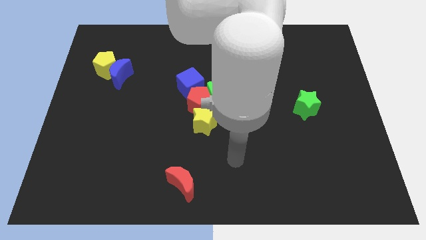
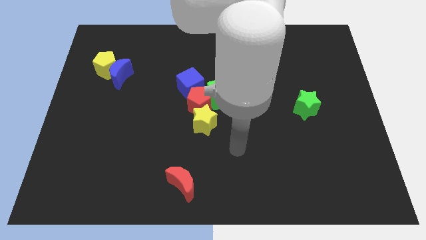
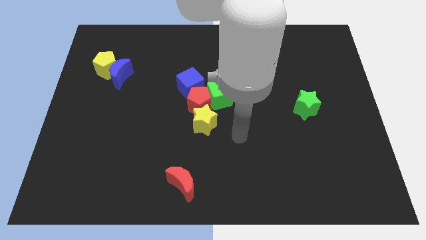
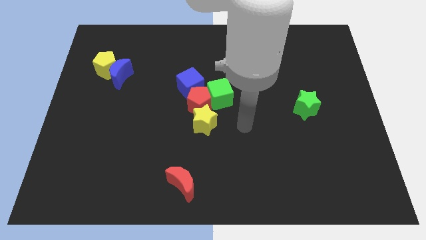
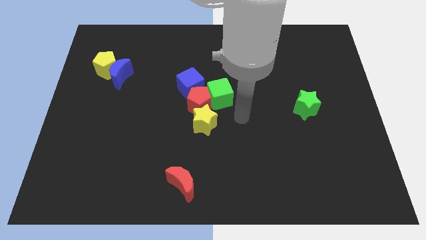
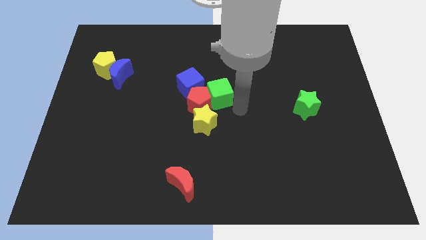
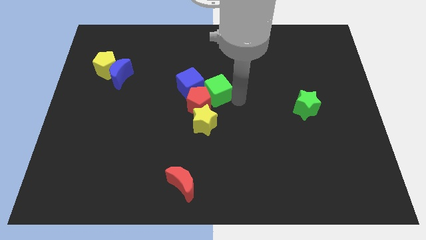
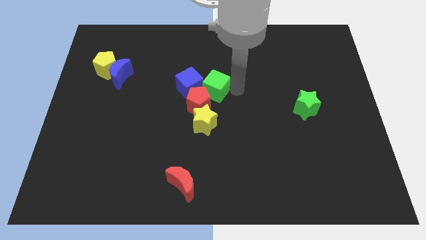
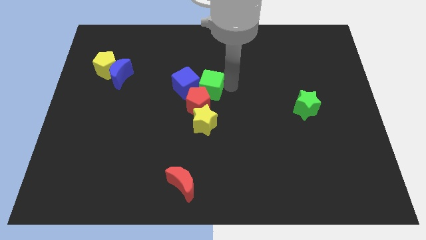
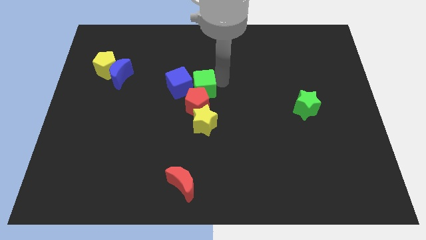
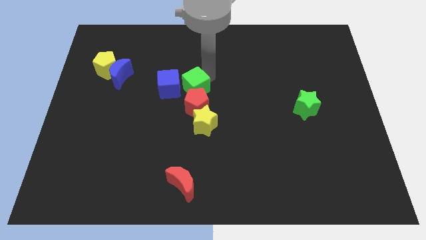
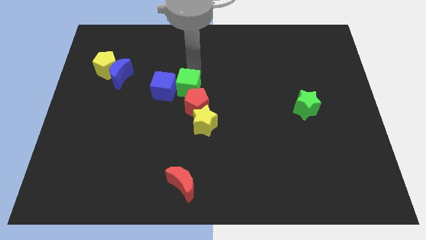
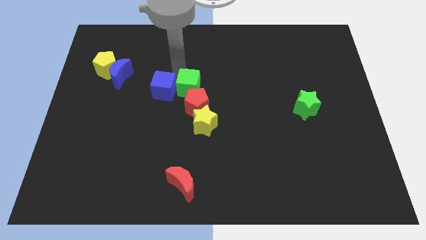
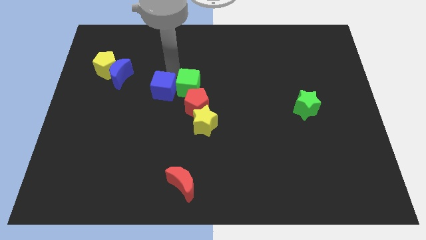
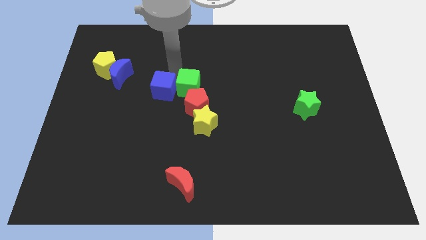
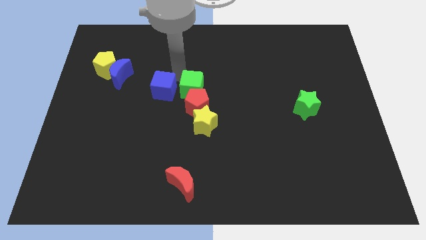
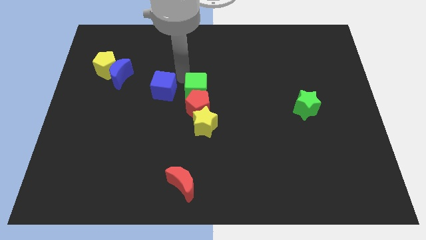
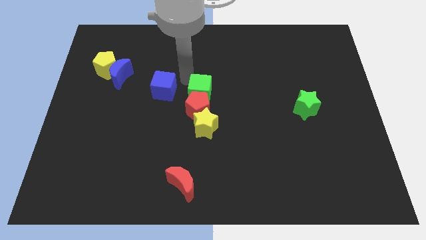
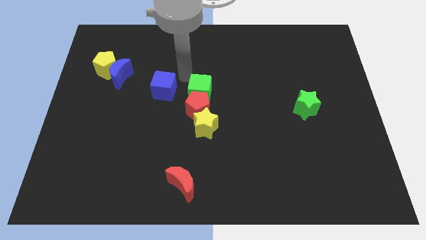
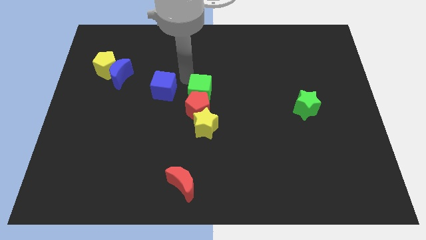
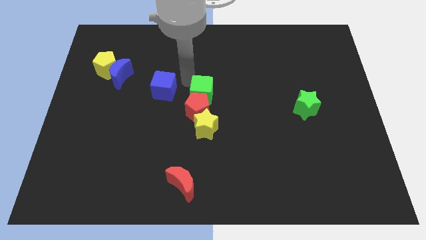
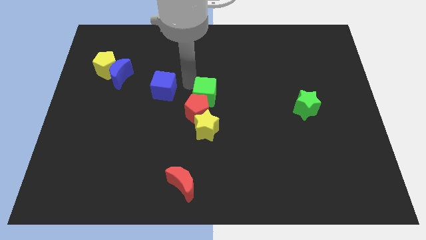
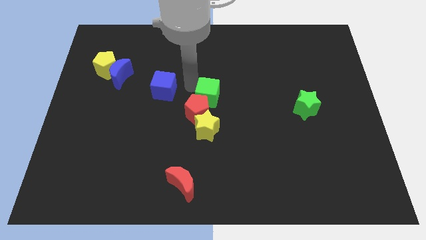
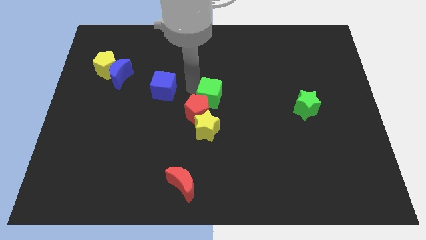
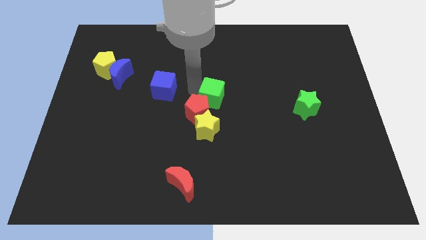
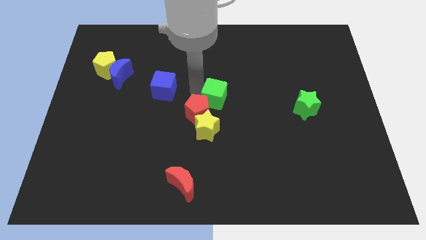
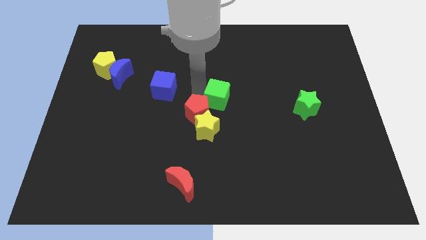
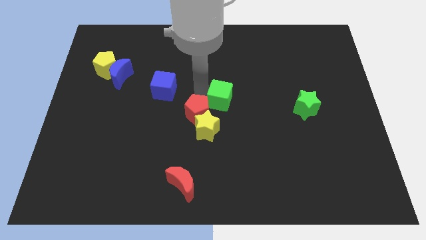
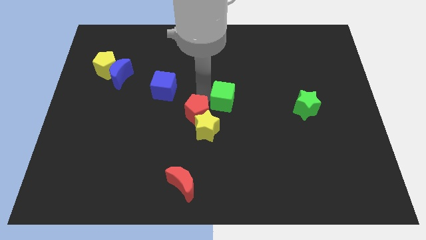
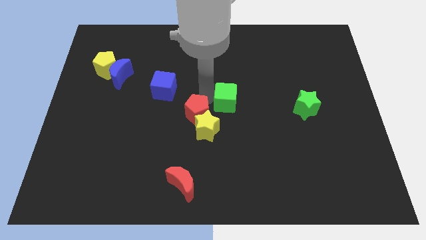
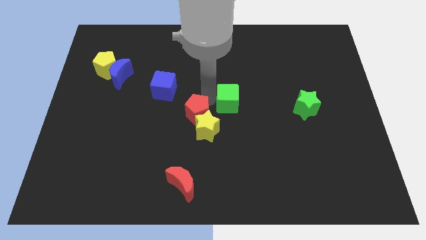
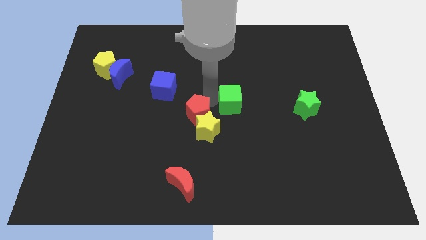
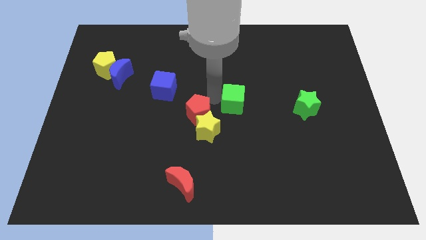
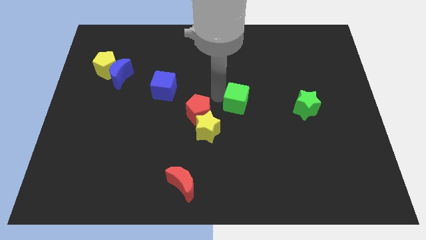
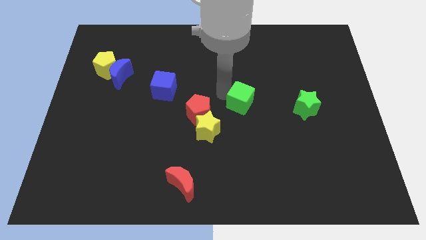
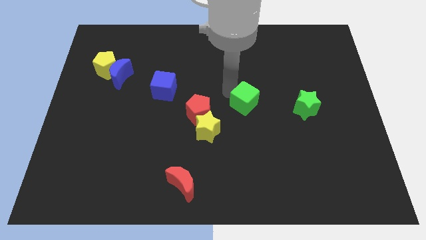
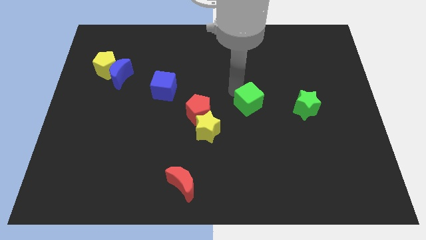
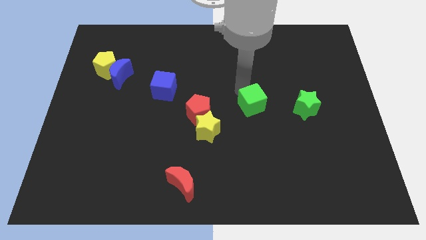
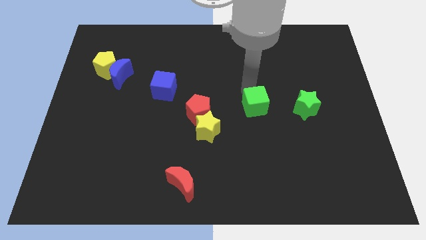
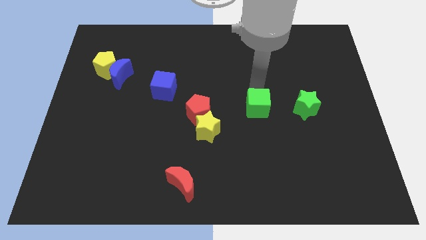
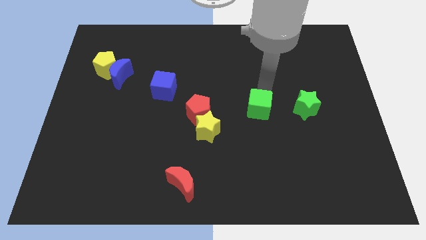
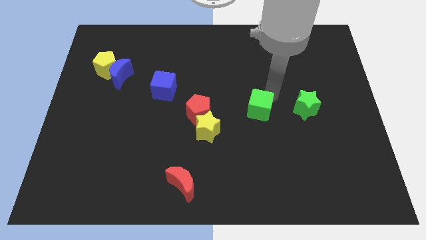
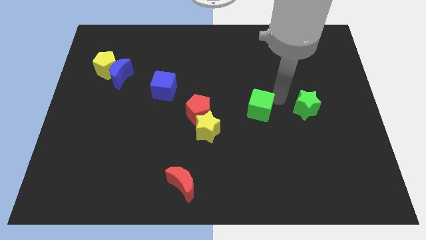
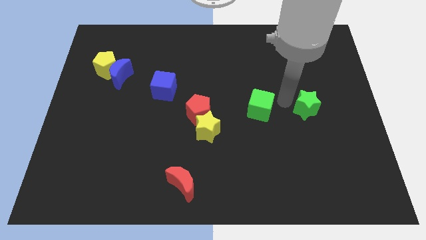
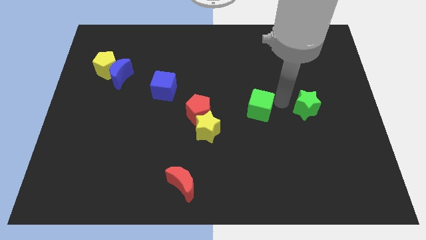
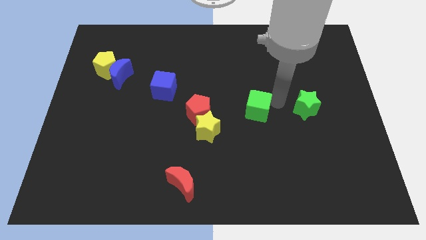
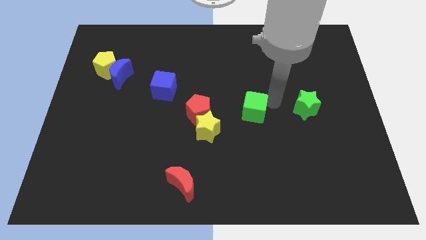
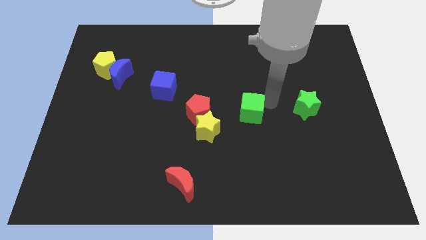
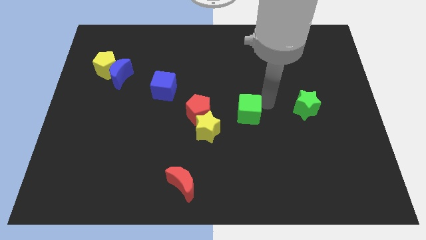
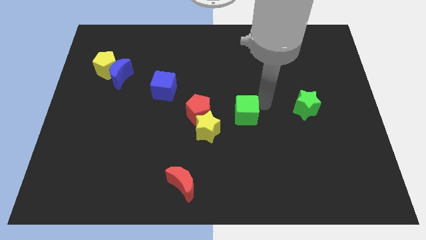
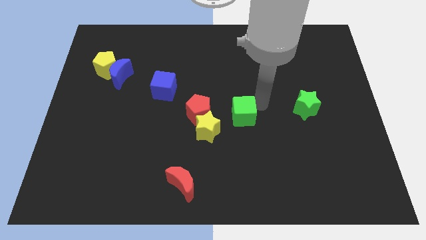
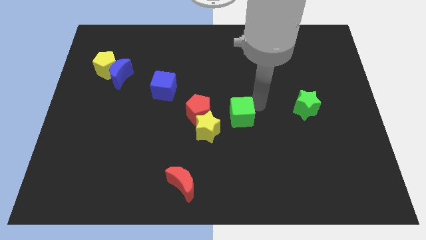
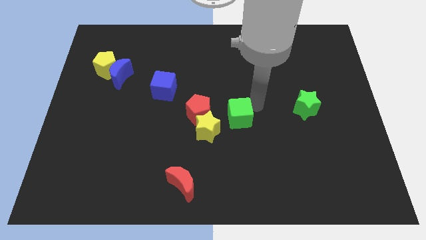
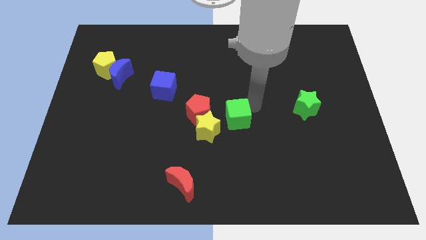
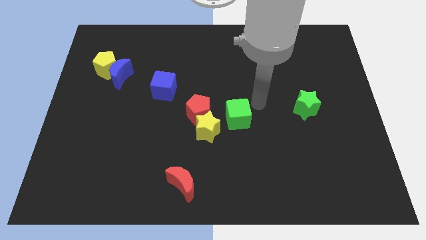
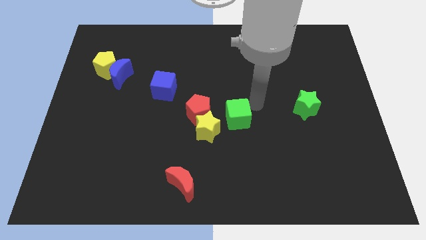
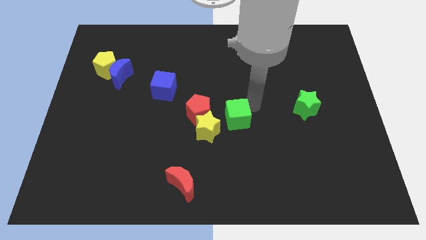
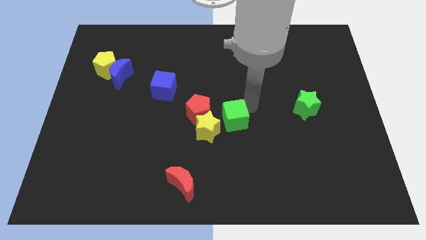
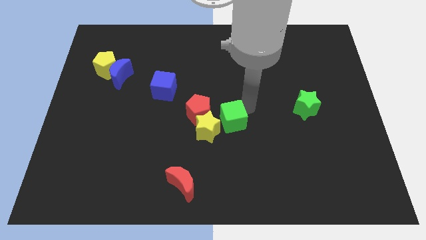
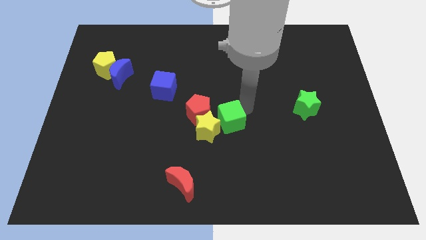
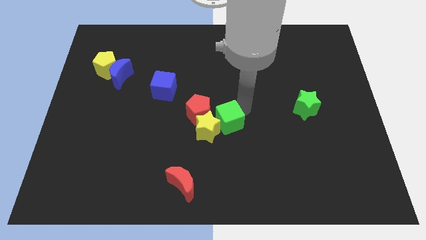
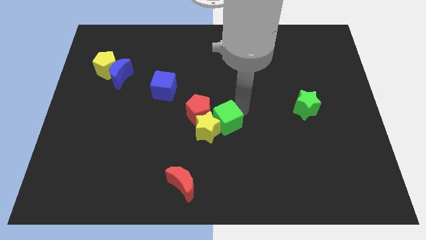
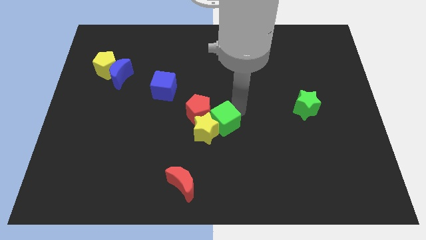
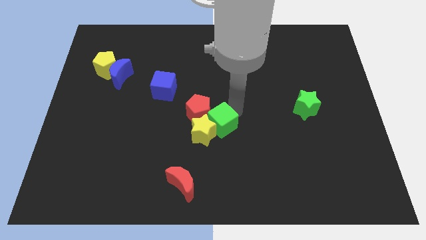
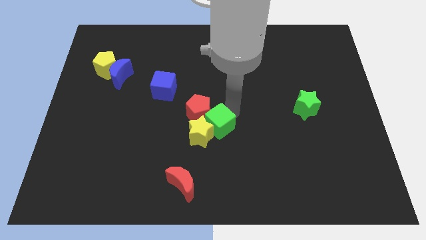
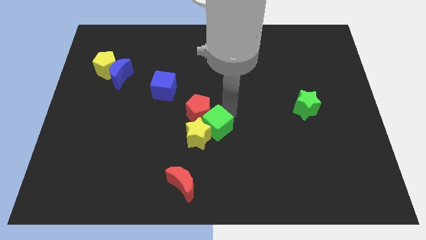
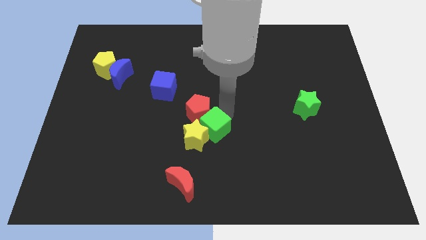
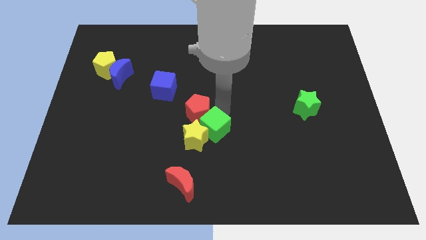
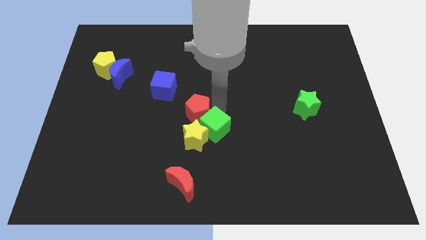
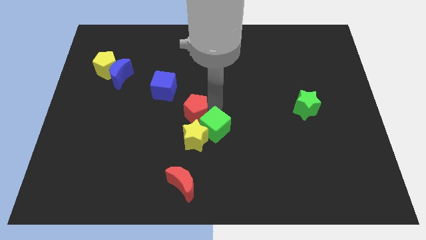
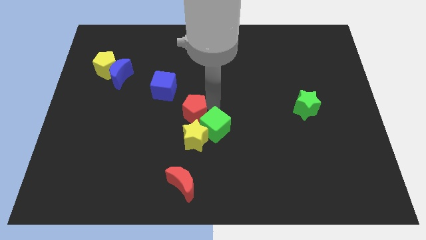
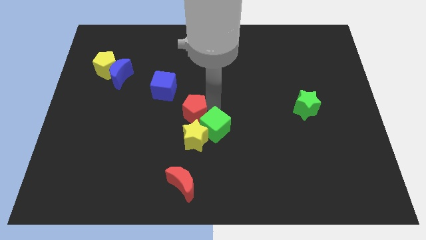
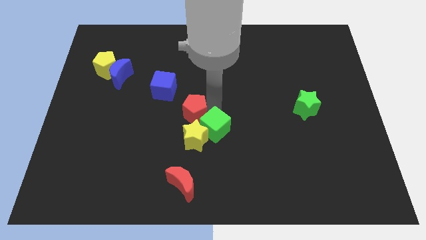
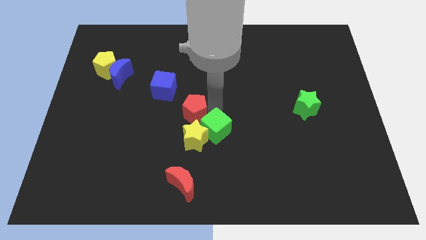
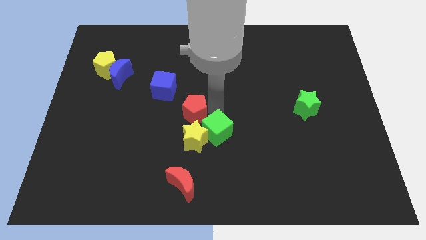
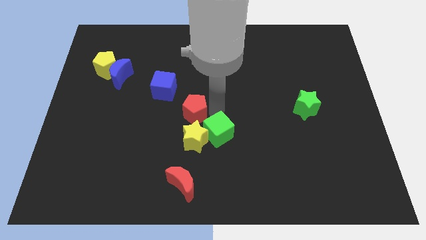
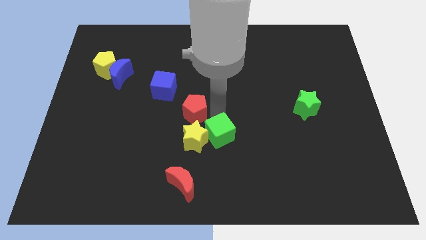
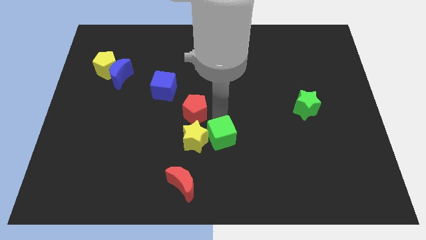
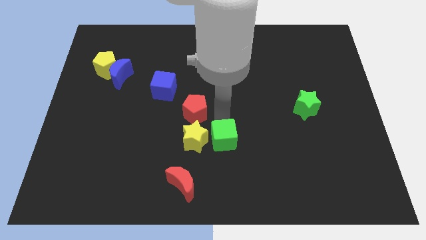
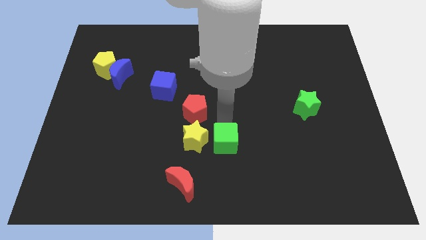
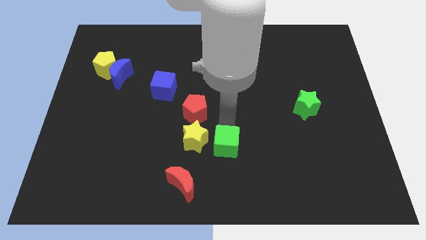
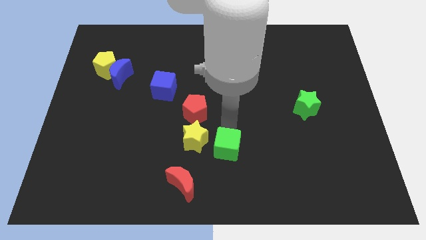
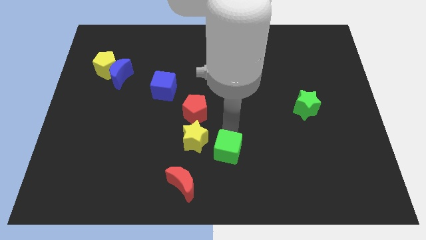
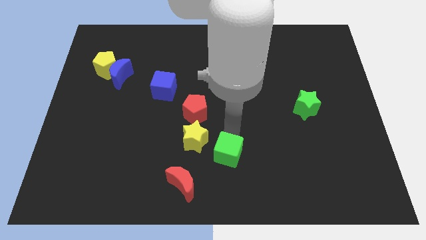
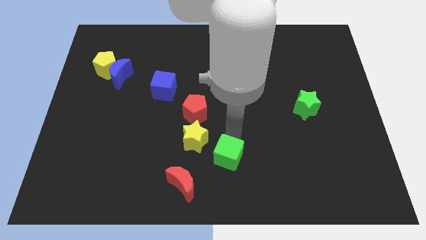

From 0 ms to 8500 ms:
push the green cube to the bottom side
